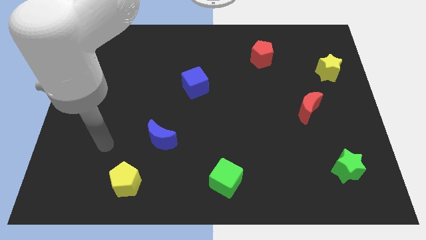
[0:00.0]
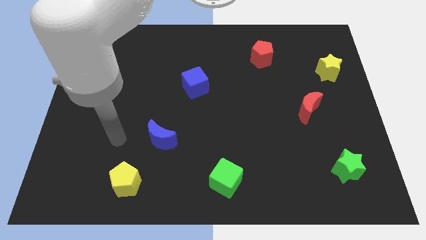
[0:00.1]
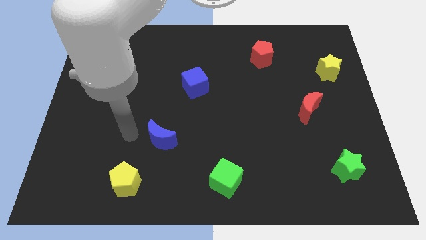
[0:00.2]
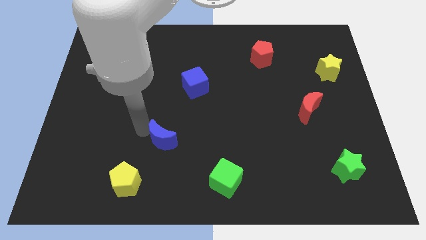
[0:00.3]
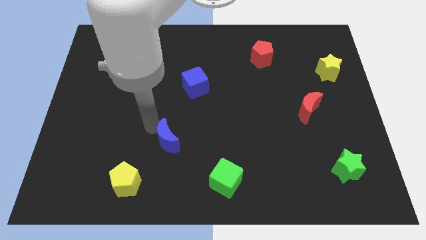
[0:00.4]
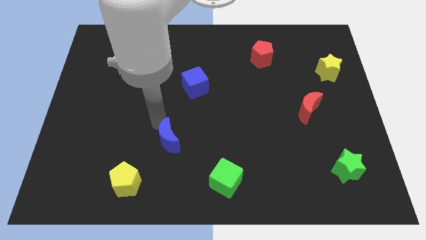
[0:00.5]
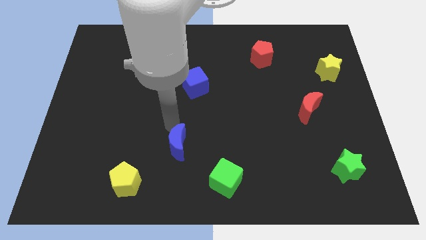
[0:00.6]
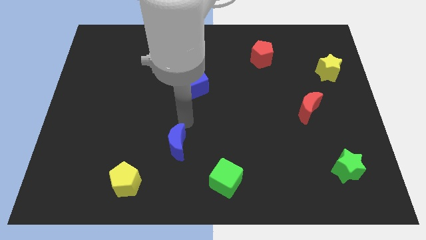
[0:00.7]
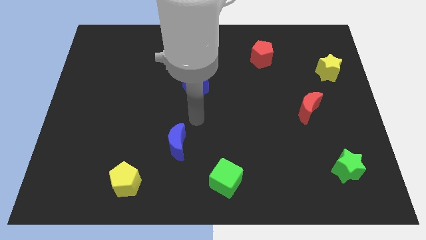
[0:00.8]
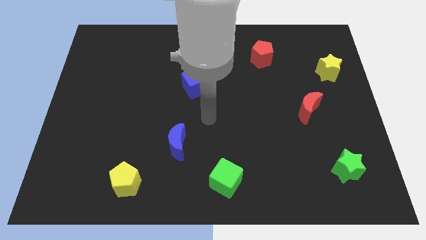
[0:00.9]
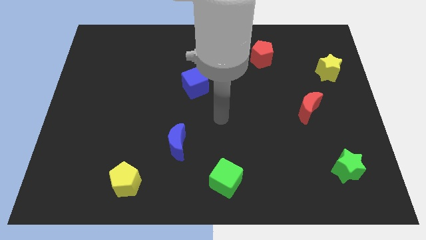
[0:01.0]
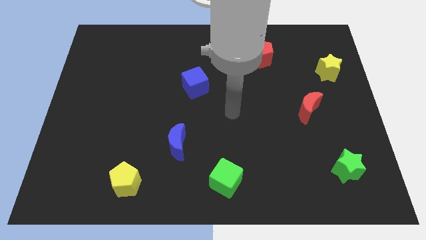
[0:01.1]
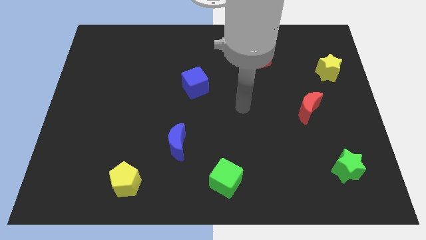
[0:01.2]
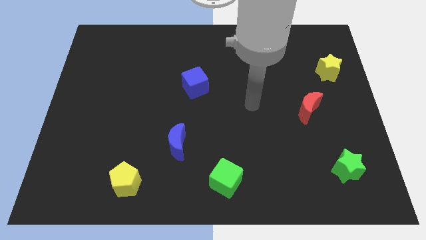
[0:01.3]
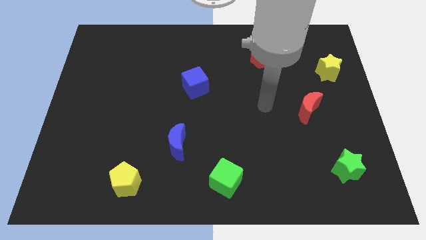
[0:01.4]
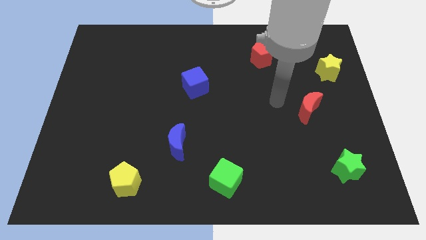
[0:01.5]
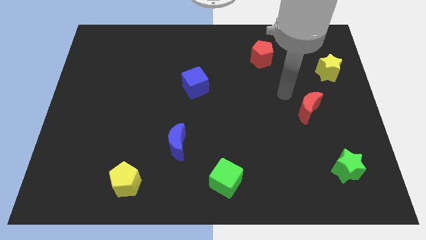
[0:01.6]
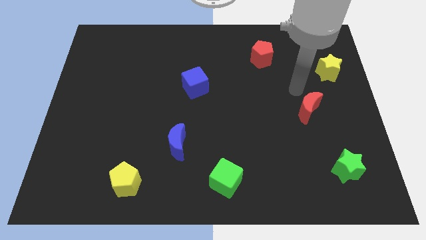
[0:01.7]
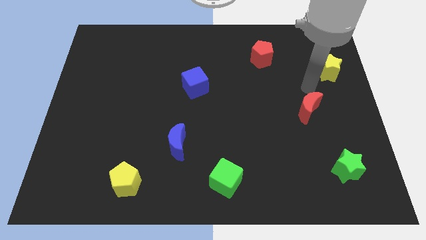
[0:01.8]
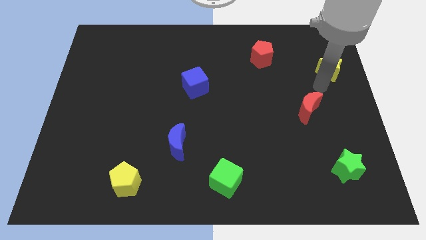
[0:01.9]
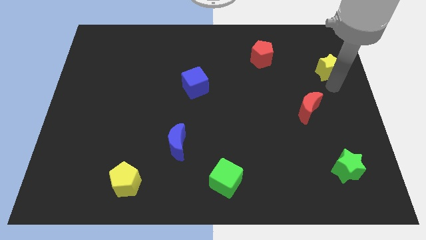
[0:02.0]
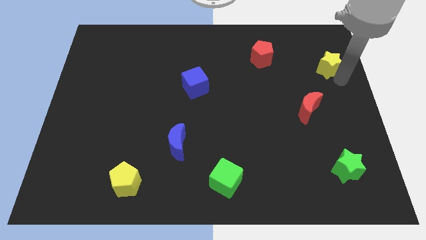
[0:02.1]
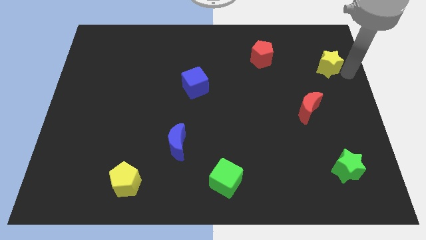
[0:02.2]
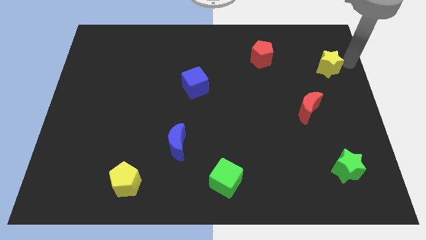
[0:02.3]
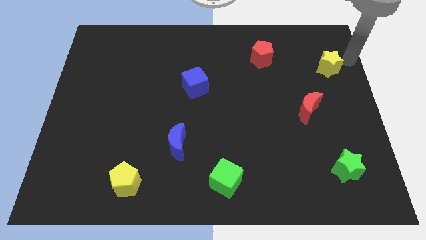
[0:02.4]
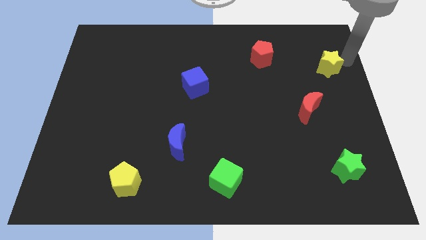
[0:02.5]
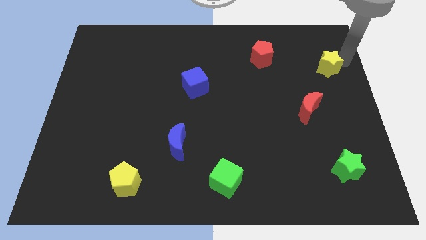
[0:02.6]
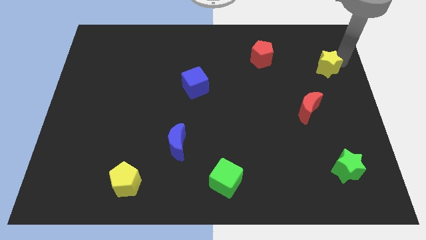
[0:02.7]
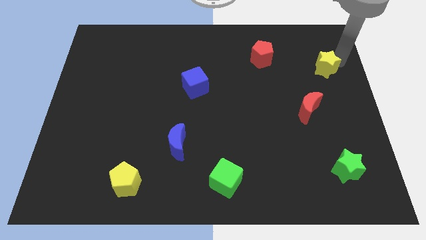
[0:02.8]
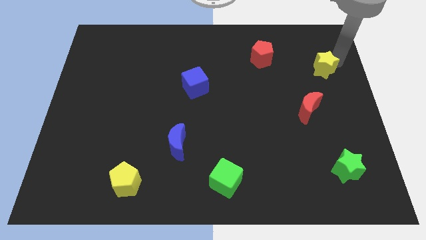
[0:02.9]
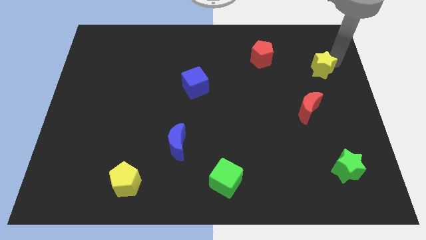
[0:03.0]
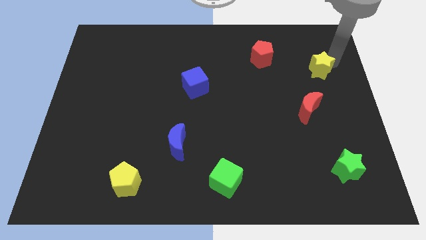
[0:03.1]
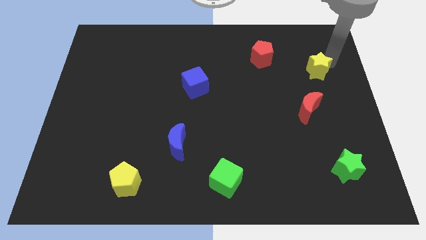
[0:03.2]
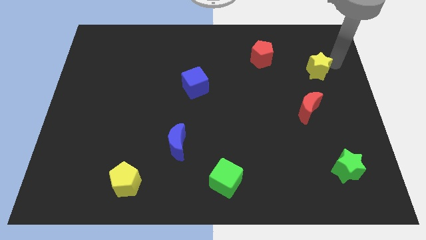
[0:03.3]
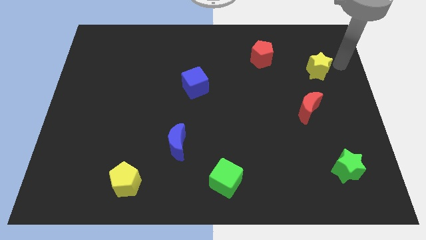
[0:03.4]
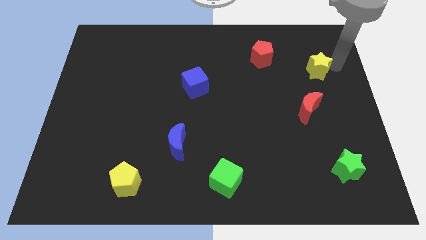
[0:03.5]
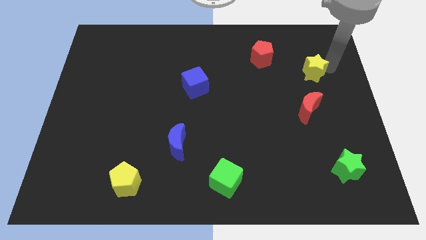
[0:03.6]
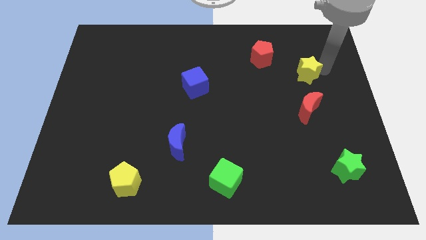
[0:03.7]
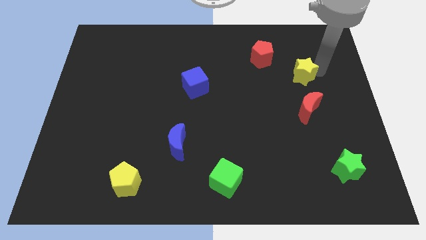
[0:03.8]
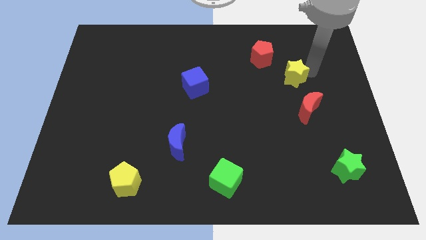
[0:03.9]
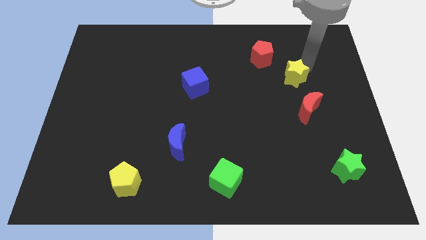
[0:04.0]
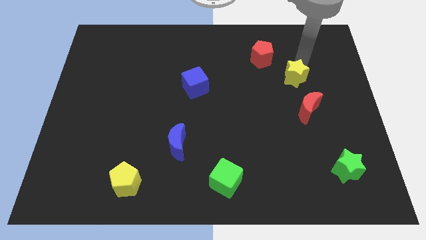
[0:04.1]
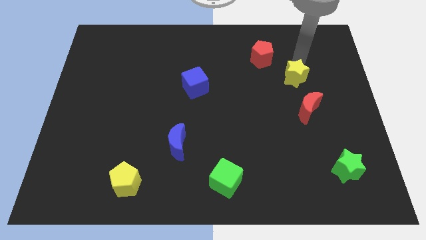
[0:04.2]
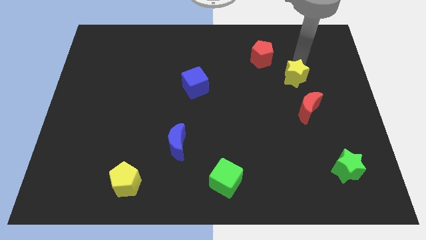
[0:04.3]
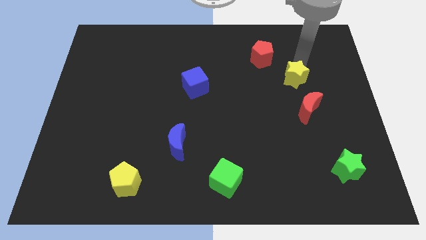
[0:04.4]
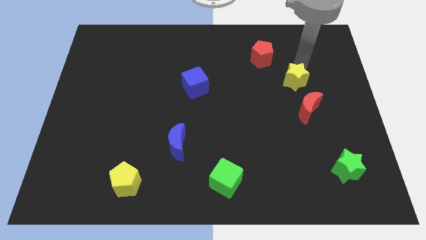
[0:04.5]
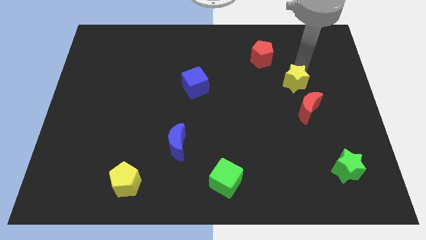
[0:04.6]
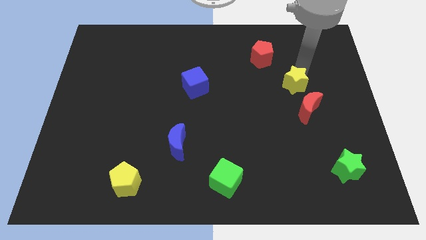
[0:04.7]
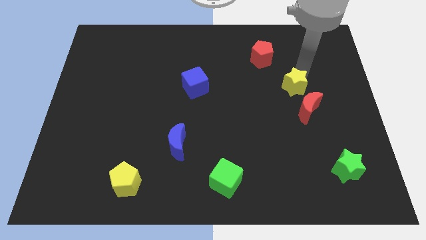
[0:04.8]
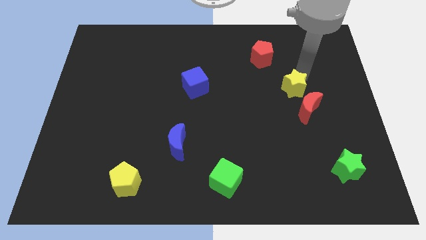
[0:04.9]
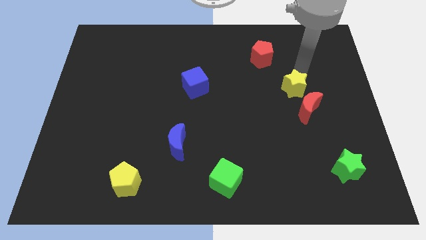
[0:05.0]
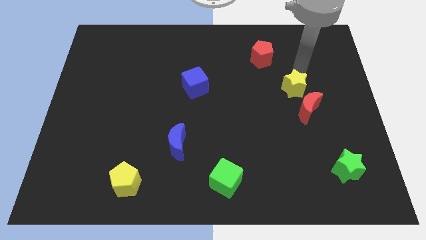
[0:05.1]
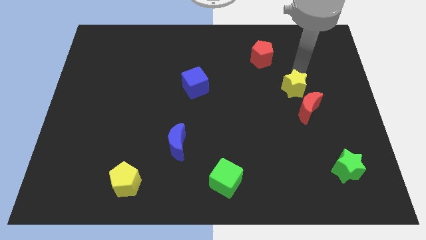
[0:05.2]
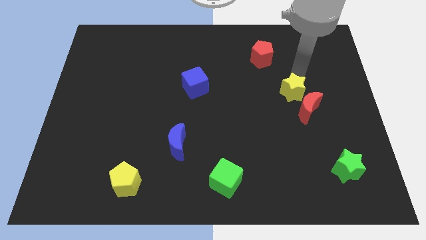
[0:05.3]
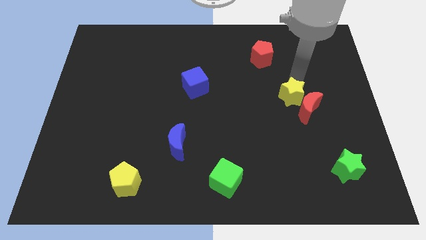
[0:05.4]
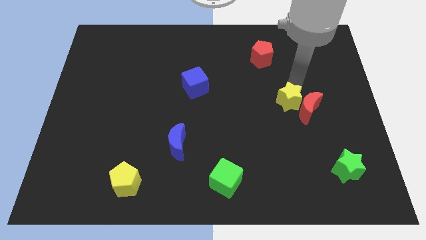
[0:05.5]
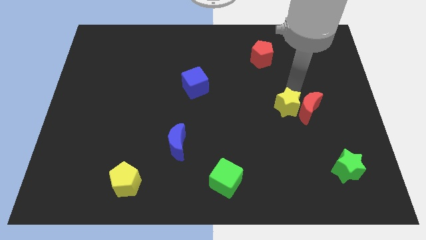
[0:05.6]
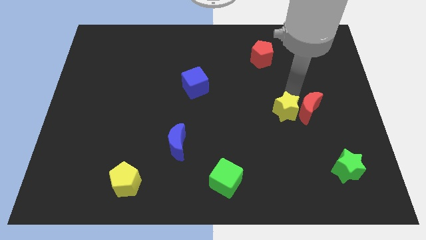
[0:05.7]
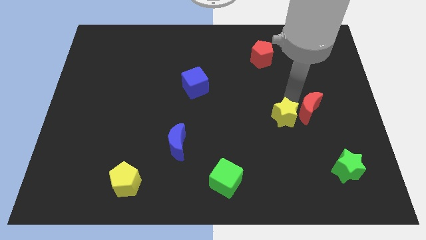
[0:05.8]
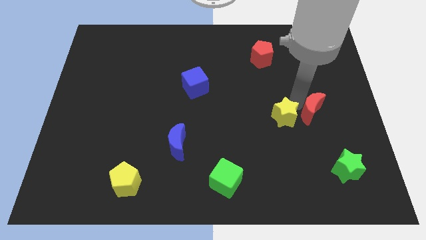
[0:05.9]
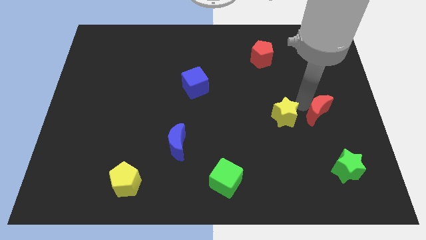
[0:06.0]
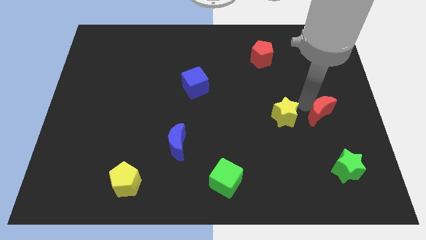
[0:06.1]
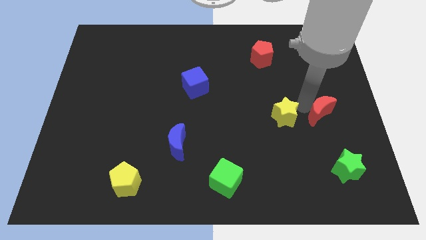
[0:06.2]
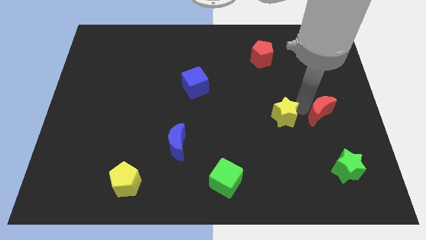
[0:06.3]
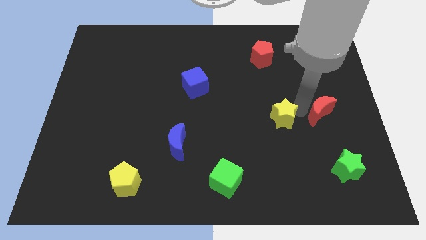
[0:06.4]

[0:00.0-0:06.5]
move the yellow star downwards and left diagonally

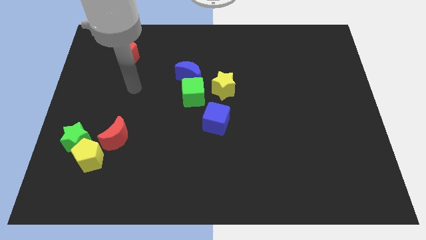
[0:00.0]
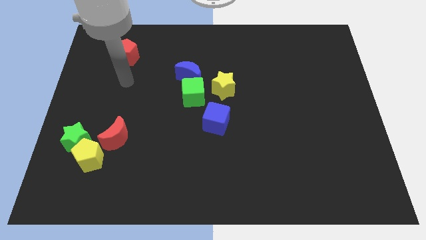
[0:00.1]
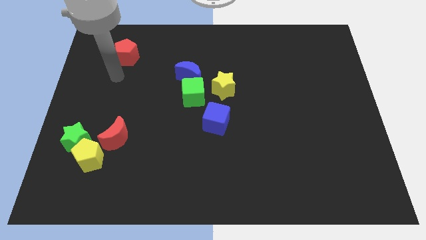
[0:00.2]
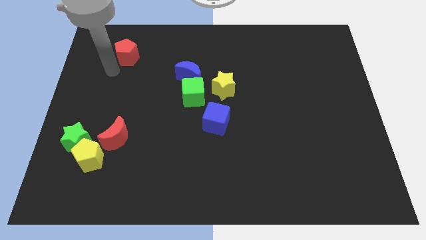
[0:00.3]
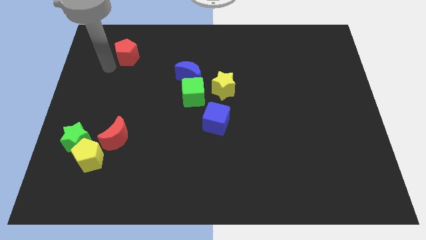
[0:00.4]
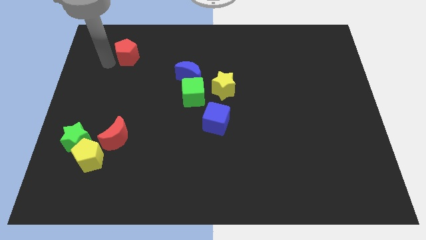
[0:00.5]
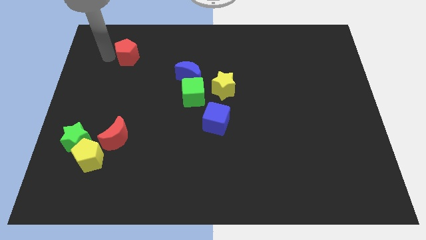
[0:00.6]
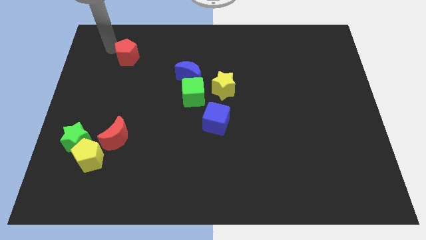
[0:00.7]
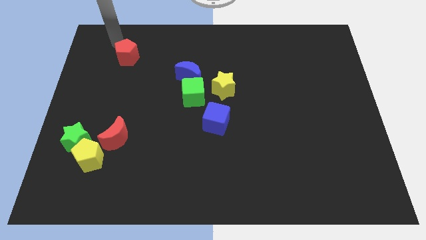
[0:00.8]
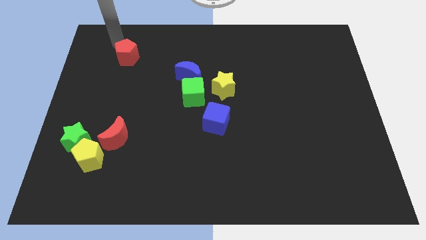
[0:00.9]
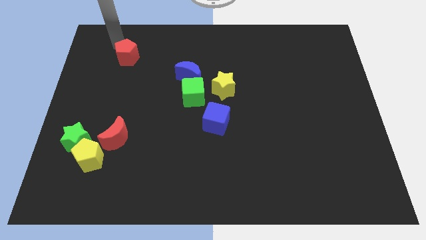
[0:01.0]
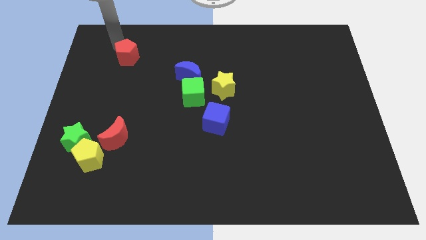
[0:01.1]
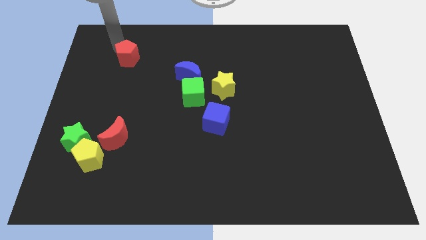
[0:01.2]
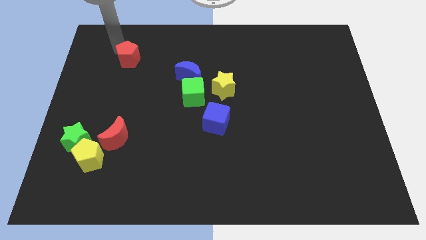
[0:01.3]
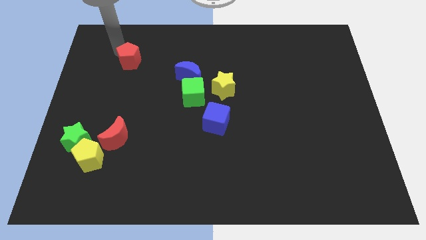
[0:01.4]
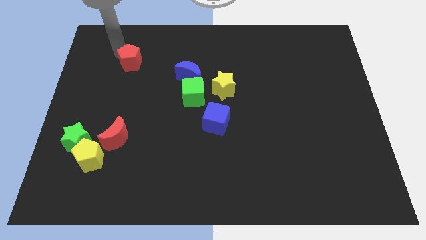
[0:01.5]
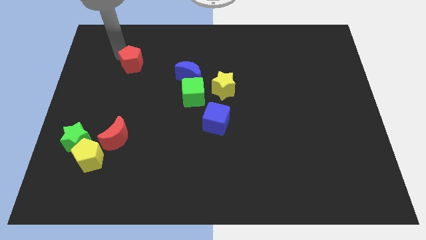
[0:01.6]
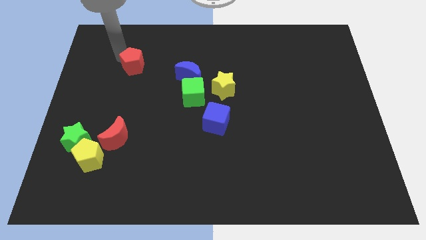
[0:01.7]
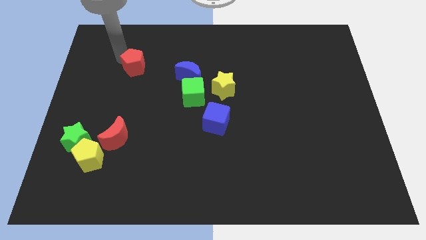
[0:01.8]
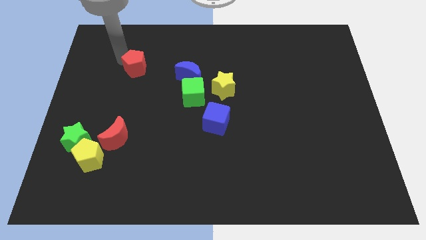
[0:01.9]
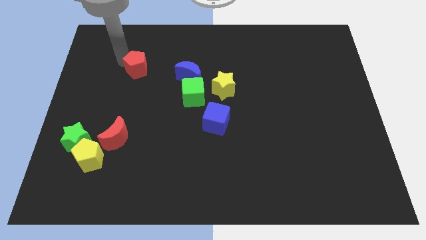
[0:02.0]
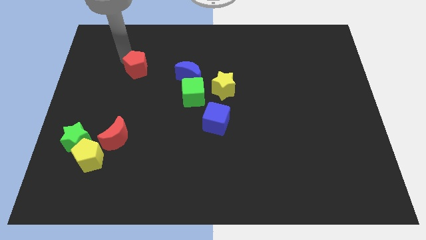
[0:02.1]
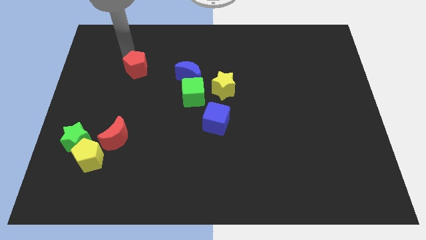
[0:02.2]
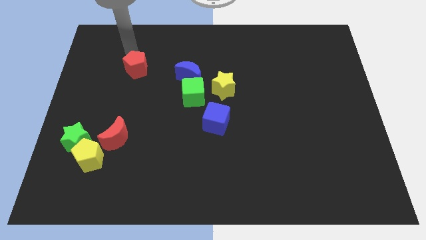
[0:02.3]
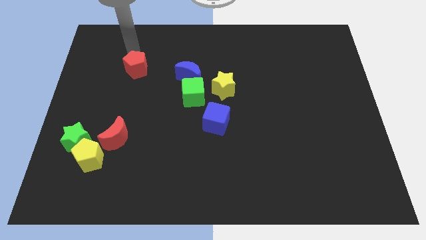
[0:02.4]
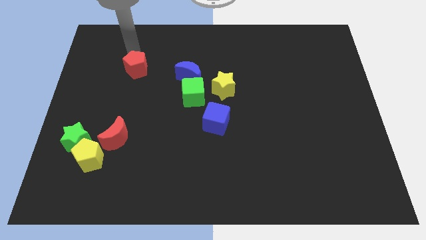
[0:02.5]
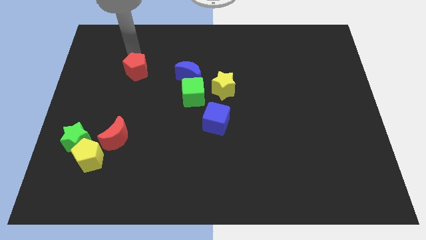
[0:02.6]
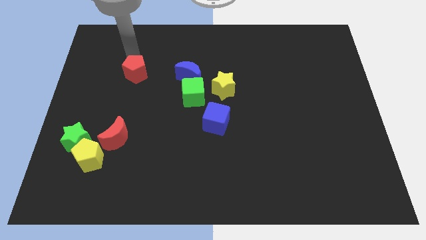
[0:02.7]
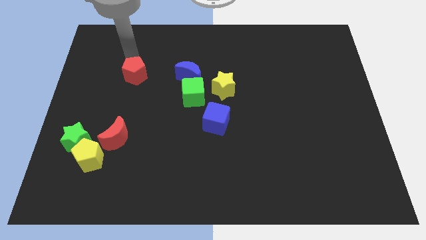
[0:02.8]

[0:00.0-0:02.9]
slide the red pentagon somewhat diagonally down and to the right
